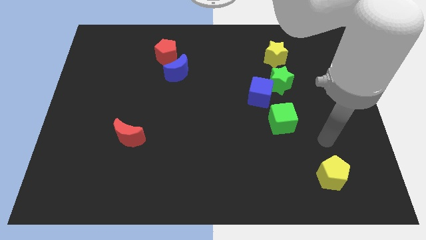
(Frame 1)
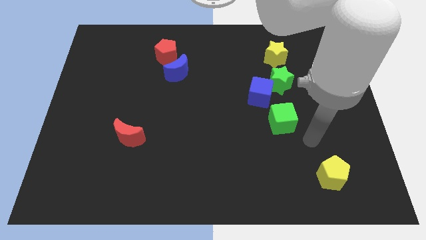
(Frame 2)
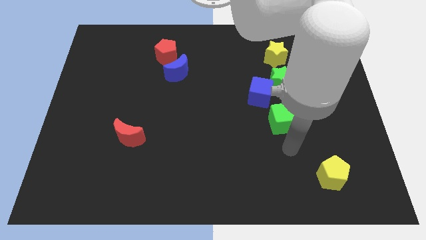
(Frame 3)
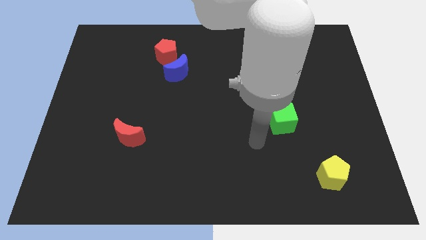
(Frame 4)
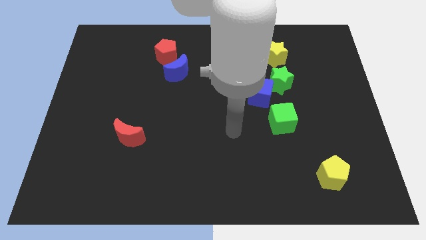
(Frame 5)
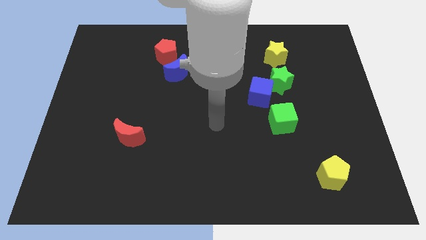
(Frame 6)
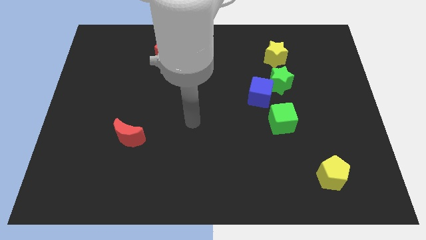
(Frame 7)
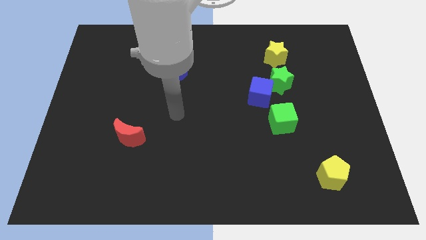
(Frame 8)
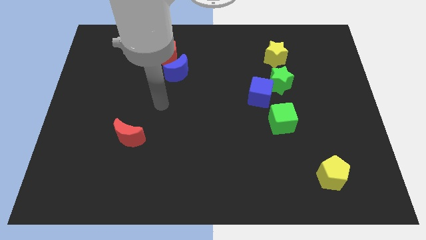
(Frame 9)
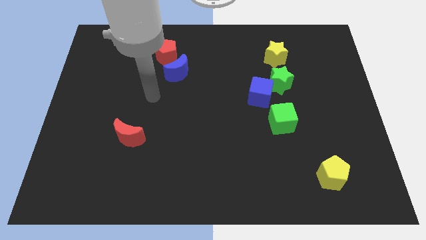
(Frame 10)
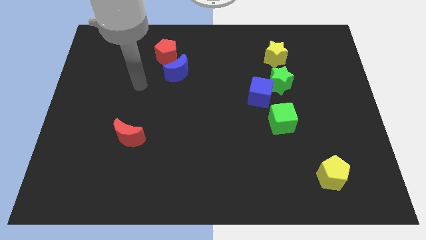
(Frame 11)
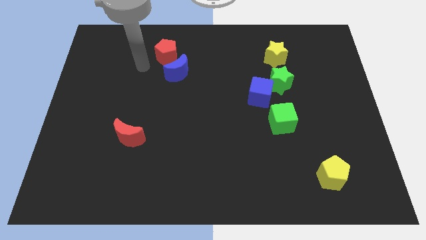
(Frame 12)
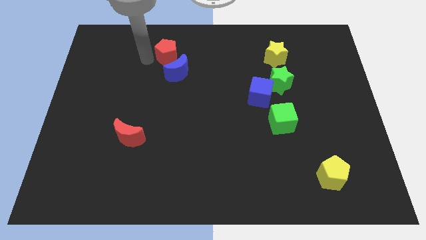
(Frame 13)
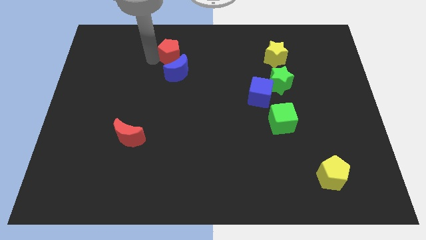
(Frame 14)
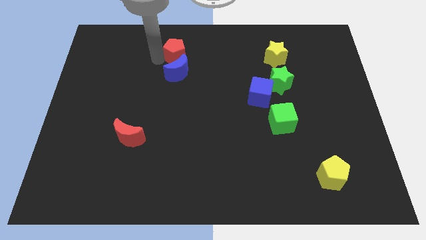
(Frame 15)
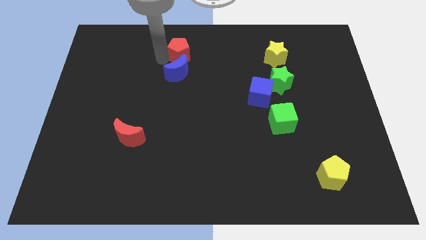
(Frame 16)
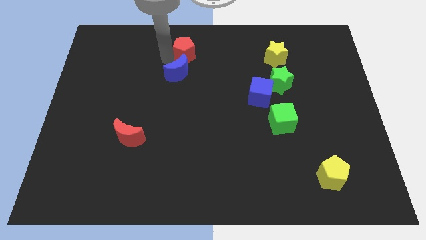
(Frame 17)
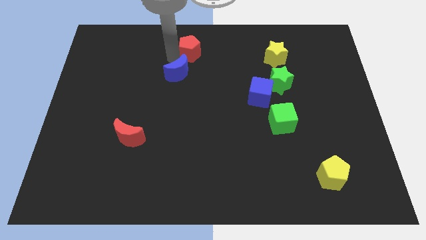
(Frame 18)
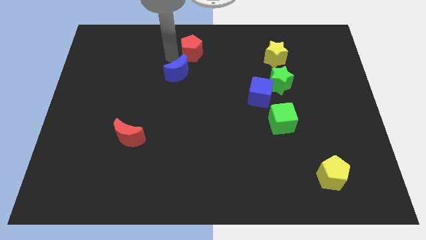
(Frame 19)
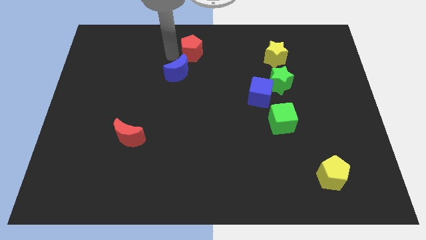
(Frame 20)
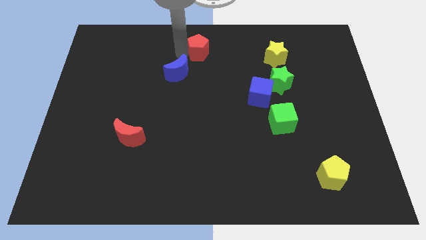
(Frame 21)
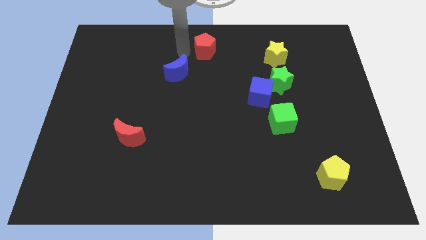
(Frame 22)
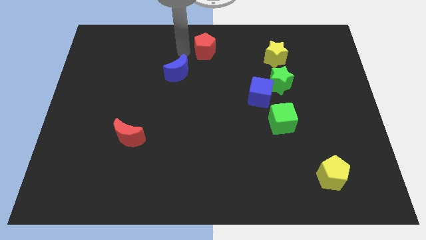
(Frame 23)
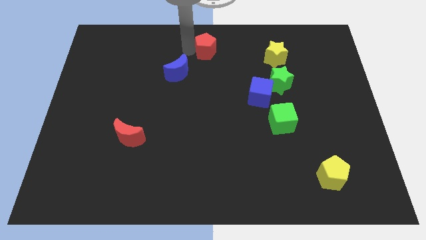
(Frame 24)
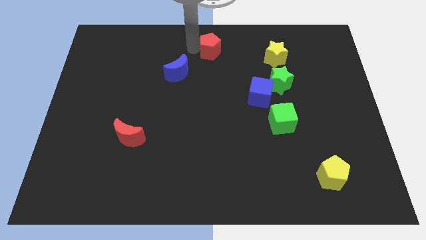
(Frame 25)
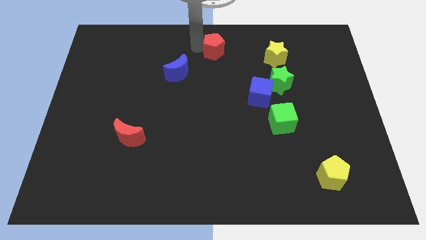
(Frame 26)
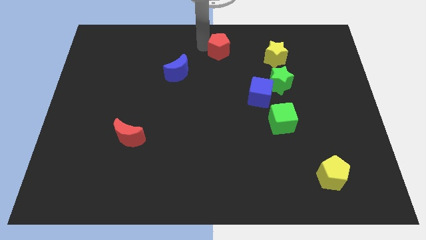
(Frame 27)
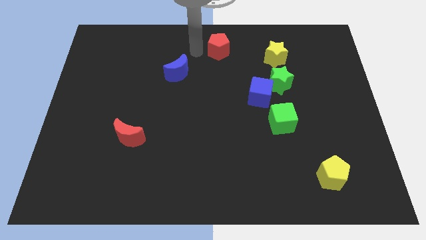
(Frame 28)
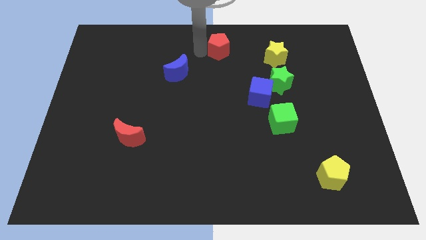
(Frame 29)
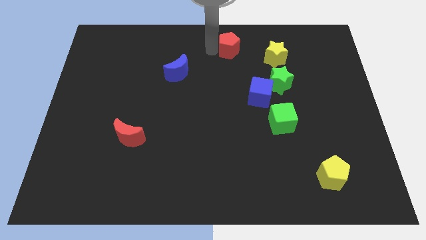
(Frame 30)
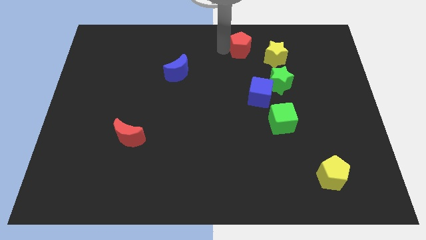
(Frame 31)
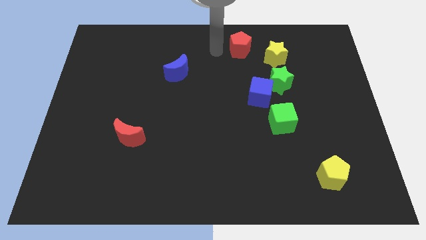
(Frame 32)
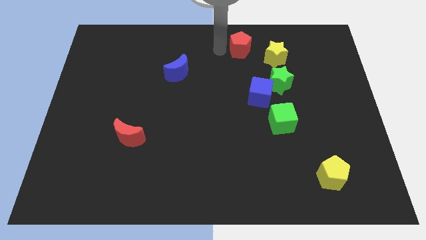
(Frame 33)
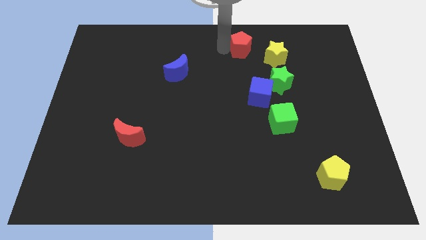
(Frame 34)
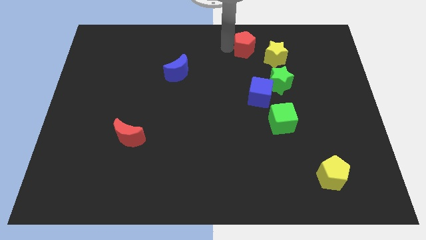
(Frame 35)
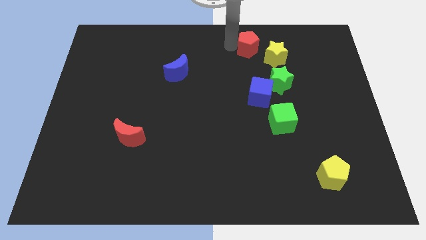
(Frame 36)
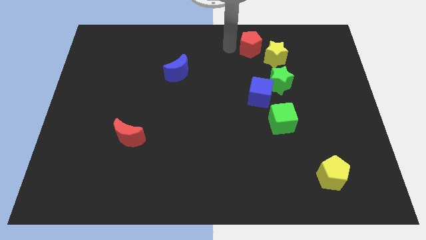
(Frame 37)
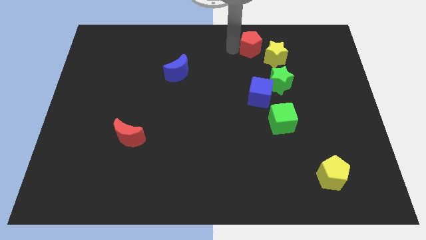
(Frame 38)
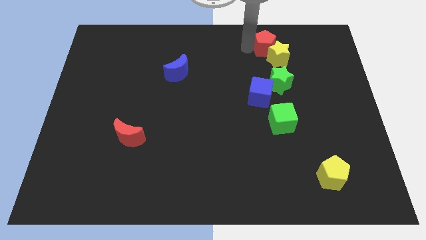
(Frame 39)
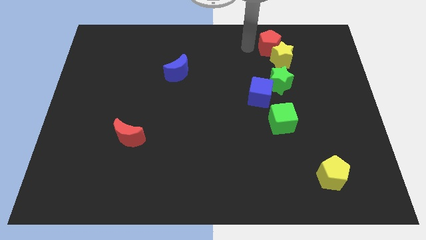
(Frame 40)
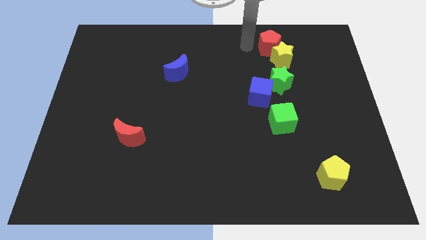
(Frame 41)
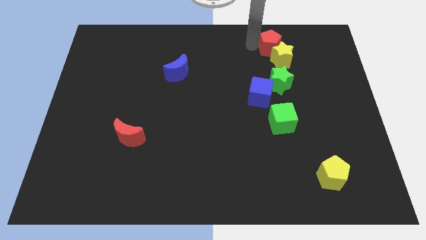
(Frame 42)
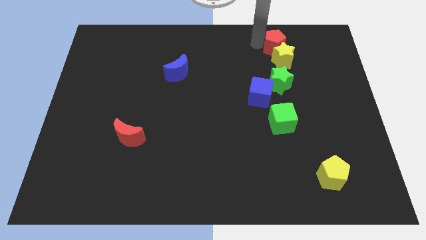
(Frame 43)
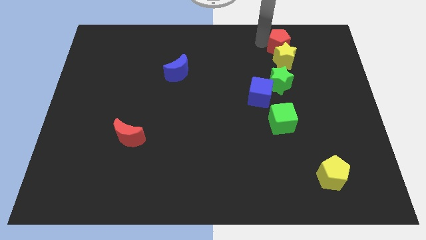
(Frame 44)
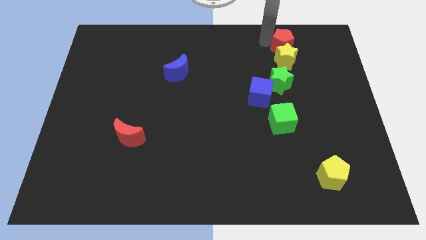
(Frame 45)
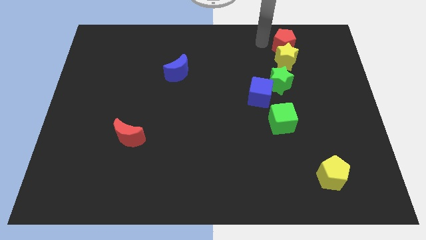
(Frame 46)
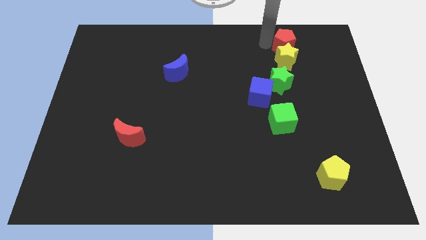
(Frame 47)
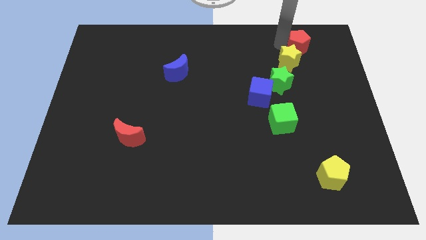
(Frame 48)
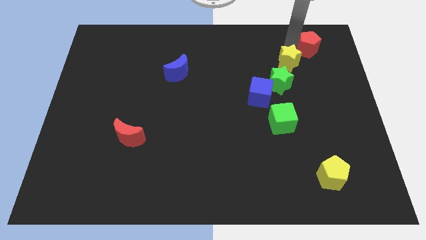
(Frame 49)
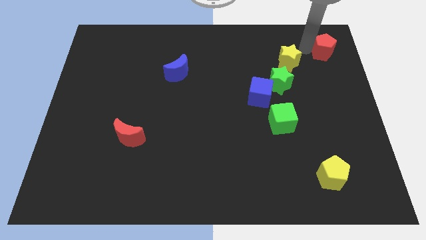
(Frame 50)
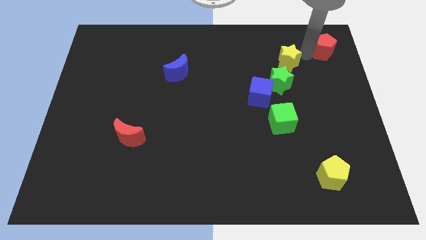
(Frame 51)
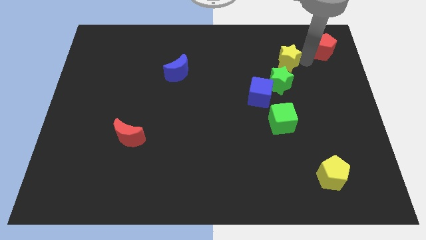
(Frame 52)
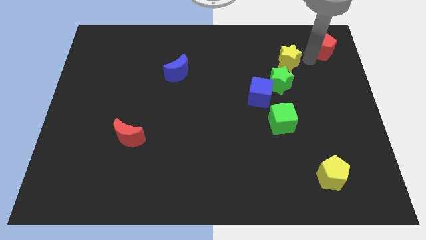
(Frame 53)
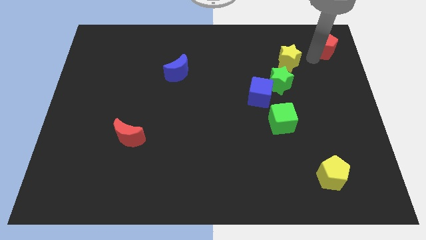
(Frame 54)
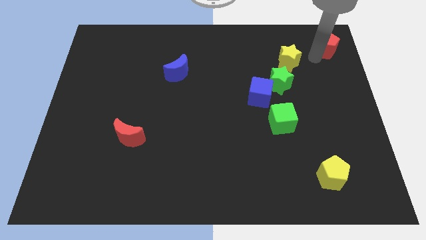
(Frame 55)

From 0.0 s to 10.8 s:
put the red pentagon to the top right of the board

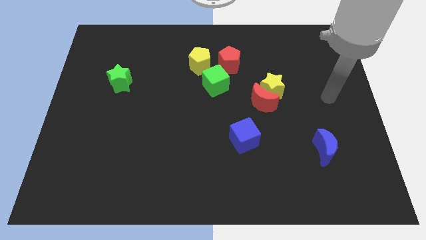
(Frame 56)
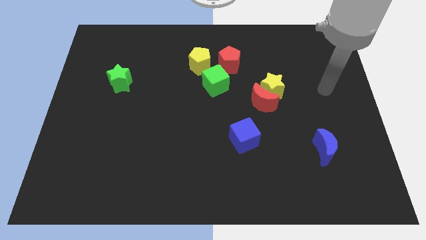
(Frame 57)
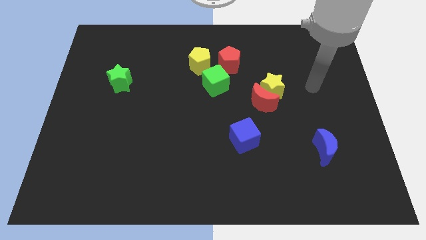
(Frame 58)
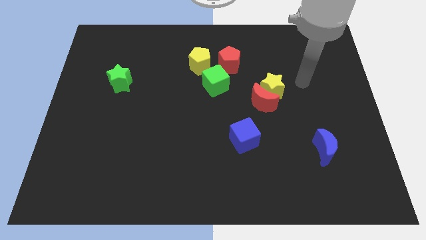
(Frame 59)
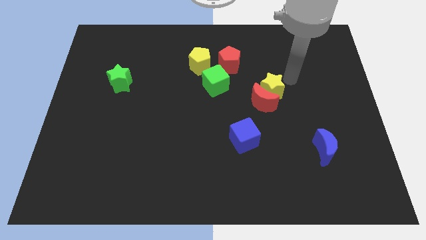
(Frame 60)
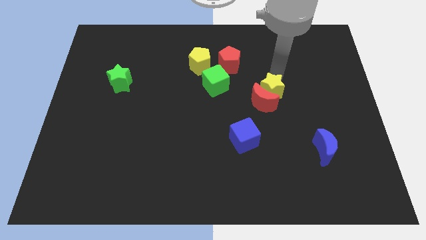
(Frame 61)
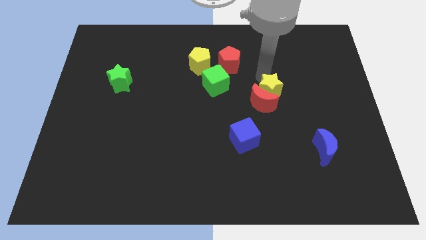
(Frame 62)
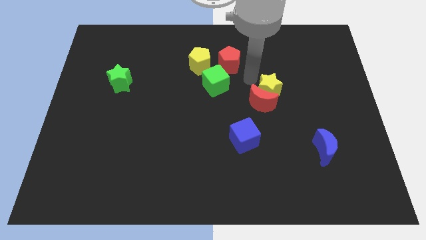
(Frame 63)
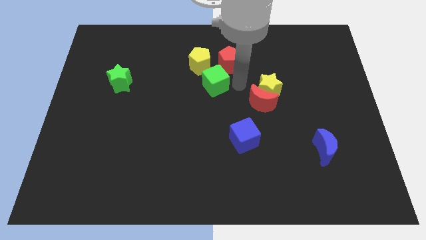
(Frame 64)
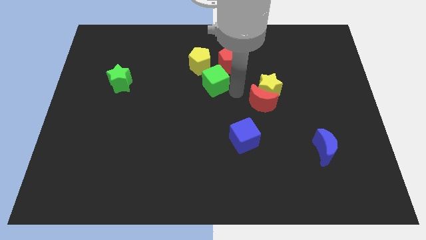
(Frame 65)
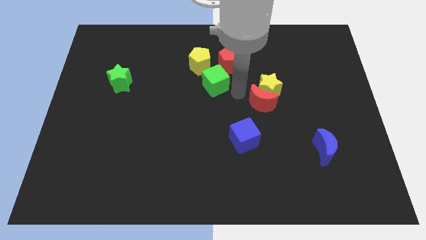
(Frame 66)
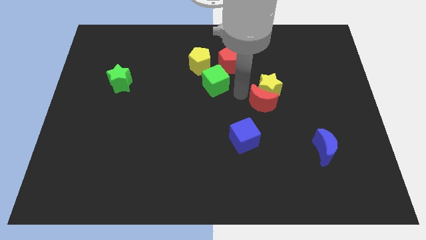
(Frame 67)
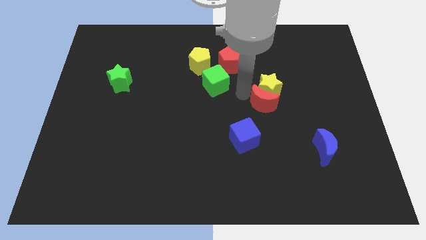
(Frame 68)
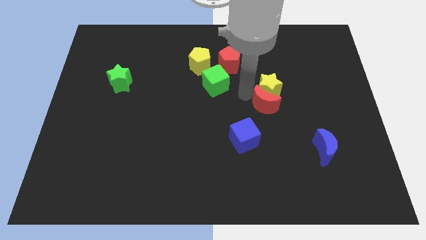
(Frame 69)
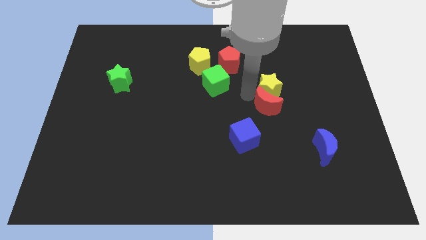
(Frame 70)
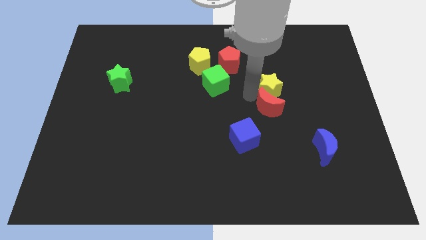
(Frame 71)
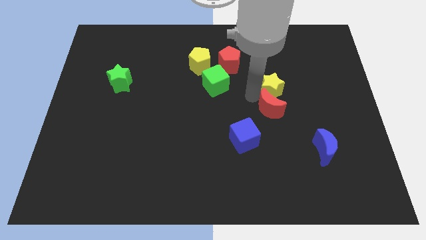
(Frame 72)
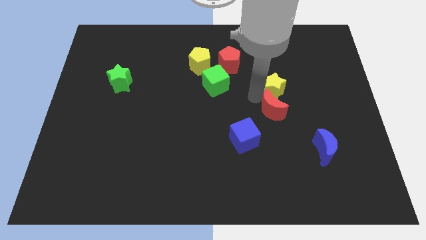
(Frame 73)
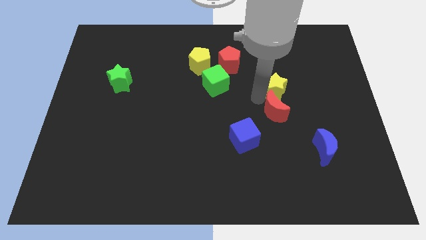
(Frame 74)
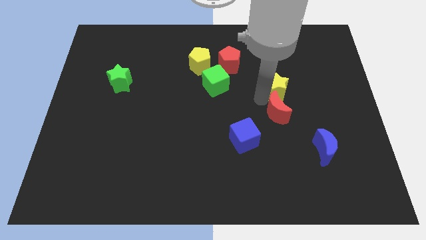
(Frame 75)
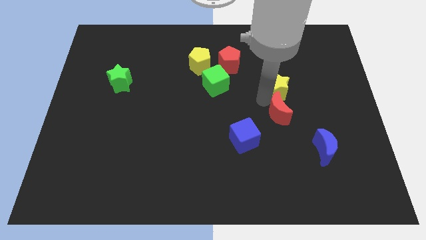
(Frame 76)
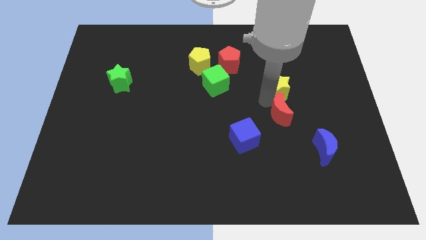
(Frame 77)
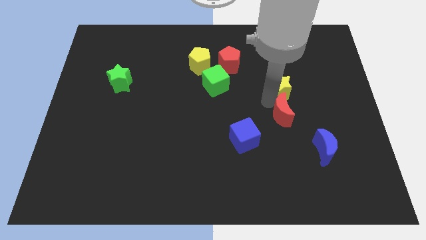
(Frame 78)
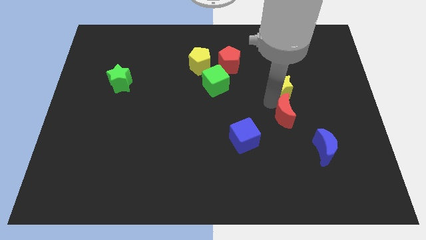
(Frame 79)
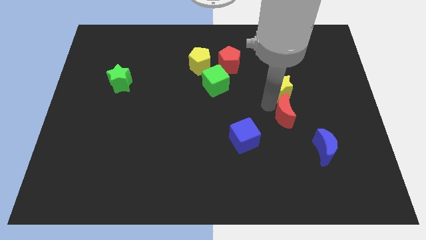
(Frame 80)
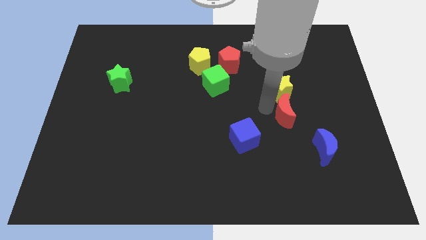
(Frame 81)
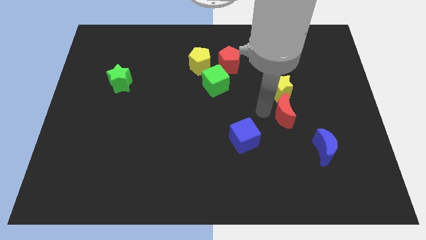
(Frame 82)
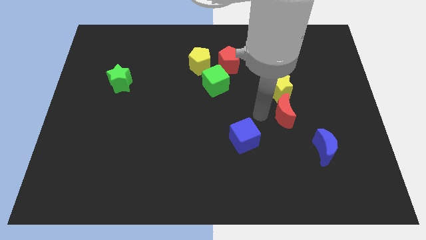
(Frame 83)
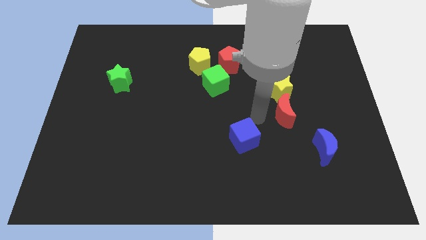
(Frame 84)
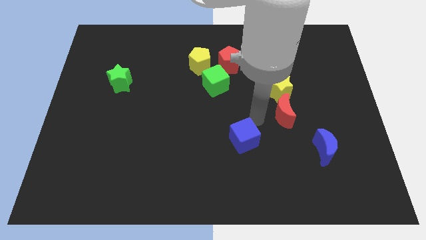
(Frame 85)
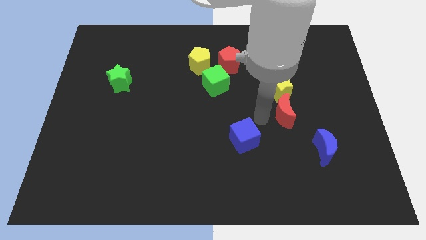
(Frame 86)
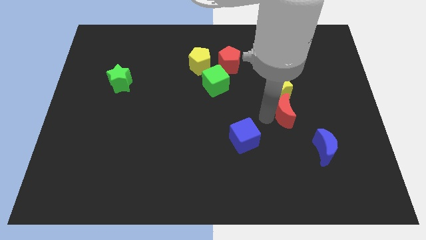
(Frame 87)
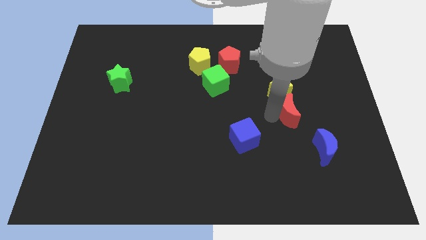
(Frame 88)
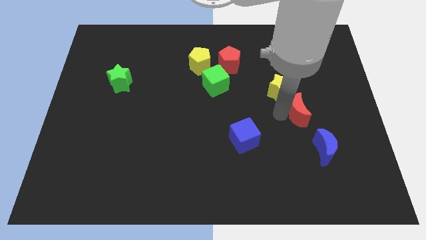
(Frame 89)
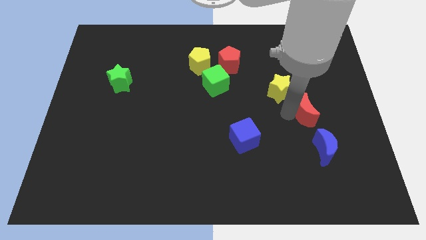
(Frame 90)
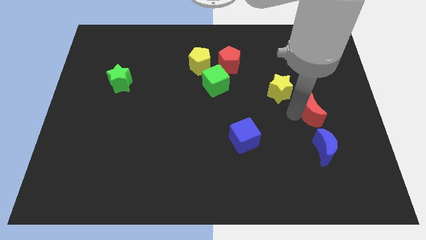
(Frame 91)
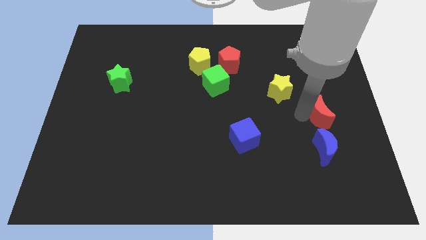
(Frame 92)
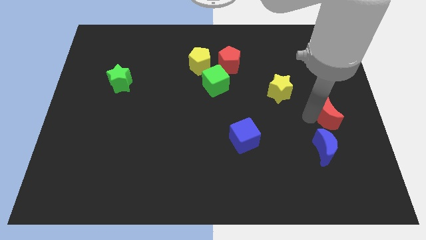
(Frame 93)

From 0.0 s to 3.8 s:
slide the red moon to the right side of the board
